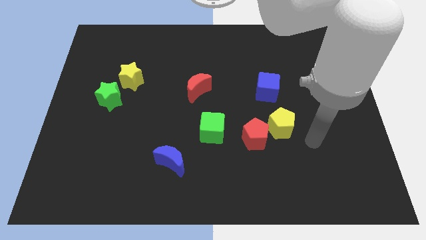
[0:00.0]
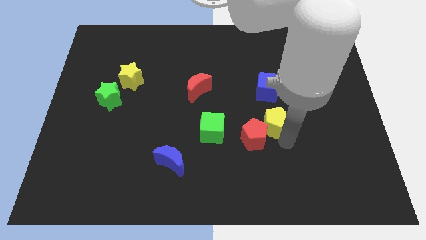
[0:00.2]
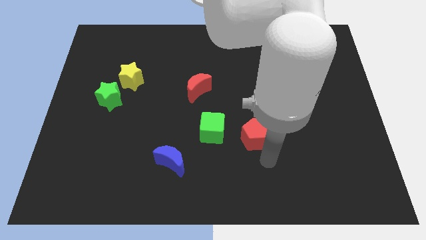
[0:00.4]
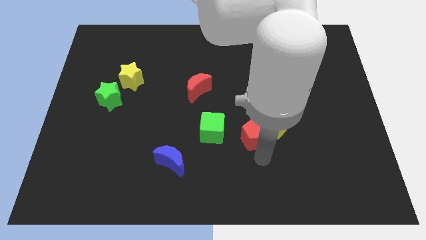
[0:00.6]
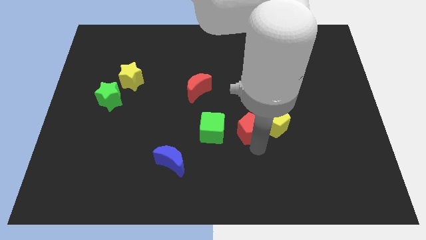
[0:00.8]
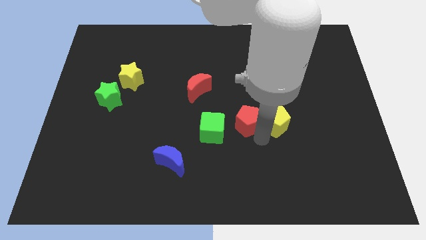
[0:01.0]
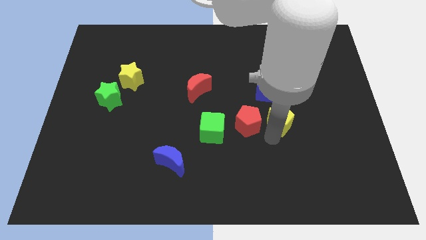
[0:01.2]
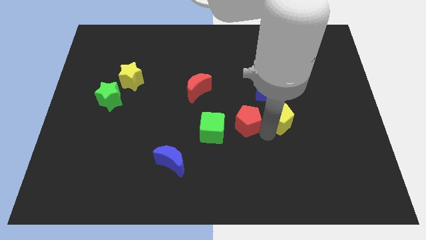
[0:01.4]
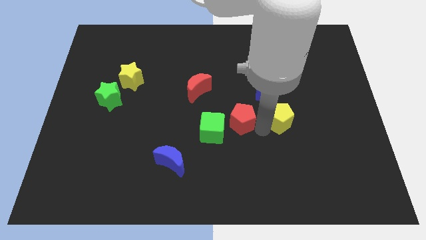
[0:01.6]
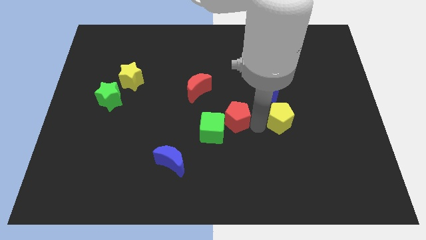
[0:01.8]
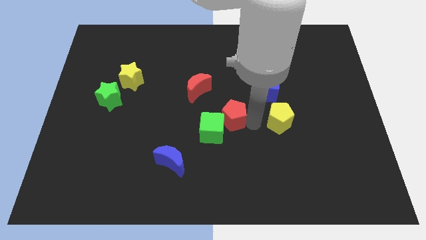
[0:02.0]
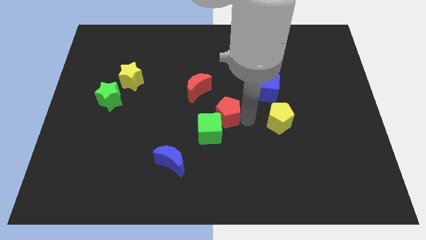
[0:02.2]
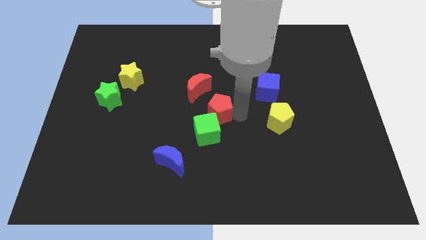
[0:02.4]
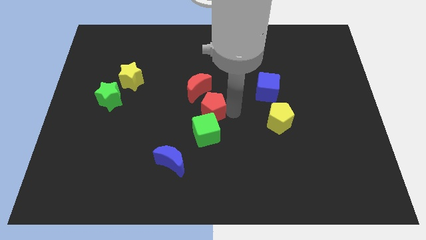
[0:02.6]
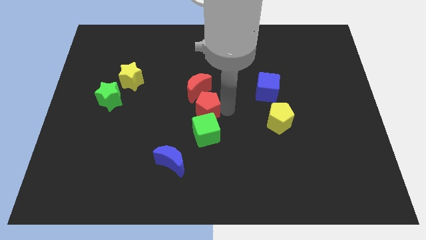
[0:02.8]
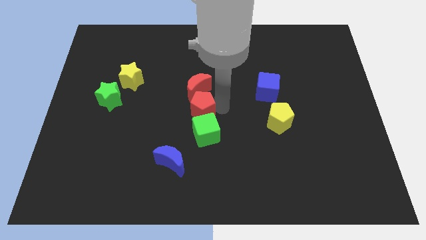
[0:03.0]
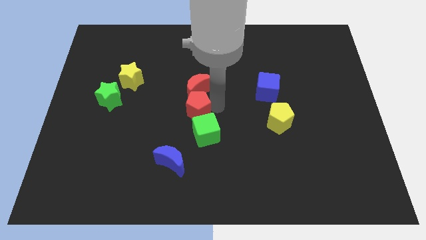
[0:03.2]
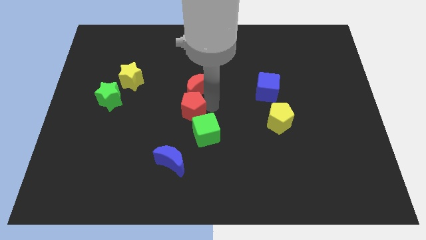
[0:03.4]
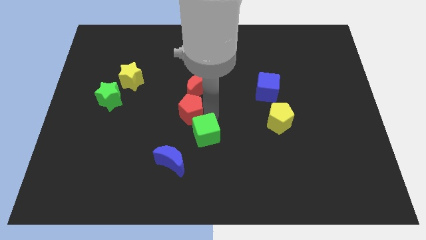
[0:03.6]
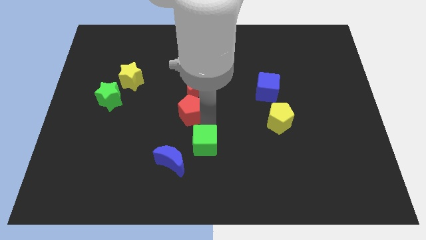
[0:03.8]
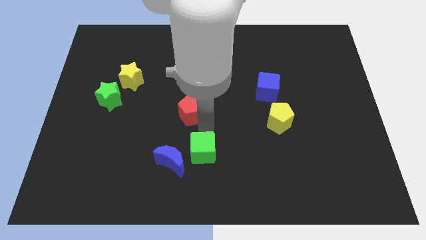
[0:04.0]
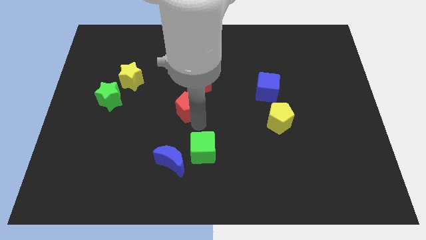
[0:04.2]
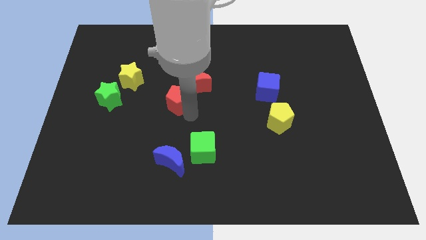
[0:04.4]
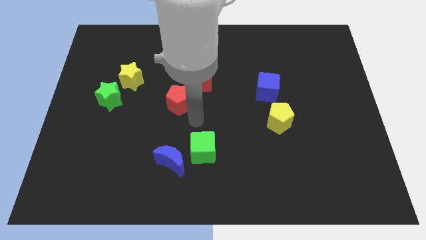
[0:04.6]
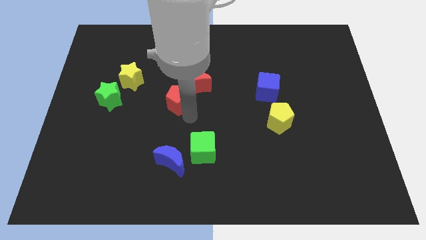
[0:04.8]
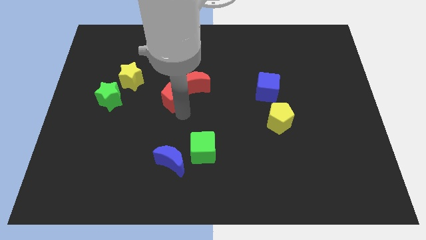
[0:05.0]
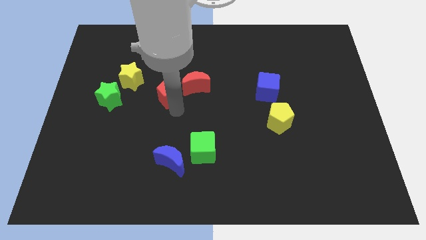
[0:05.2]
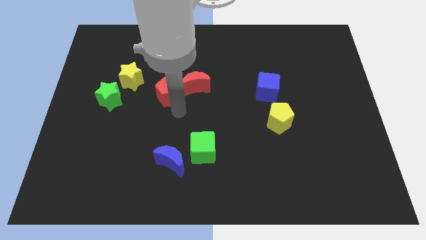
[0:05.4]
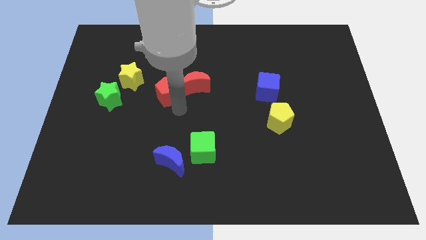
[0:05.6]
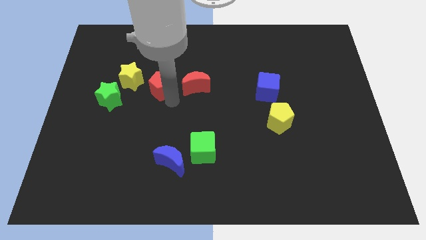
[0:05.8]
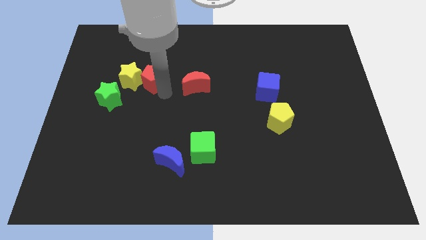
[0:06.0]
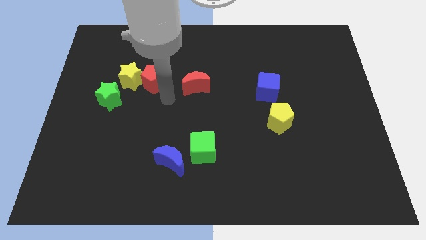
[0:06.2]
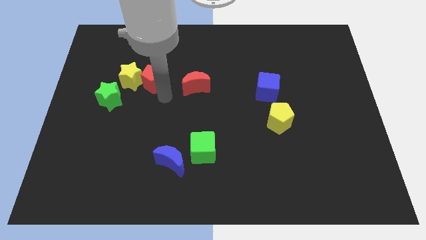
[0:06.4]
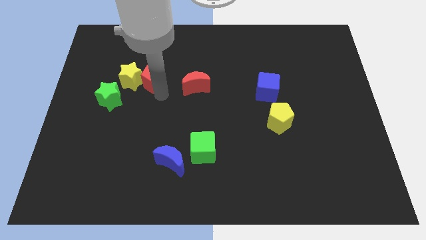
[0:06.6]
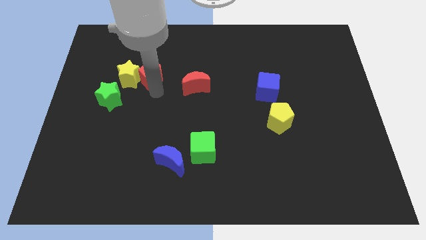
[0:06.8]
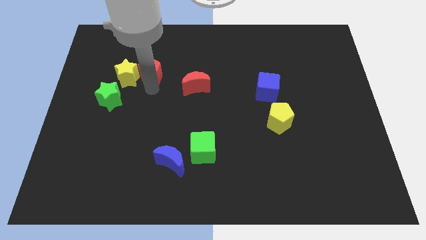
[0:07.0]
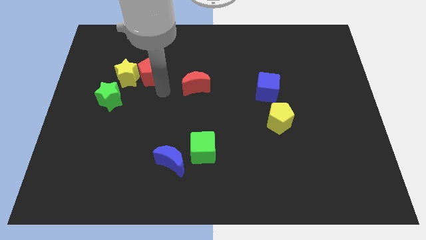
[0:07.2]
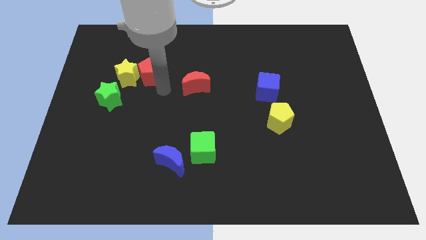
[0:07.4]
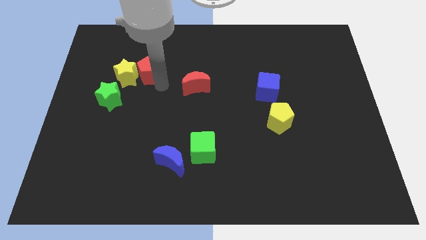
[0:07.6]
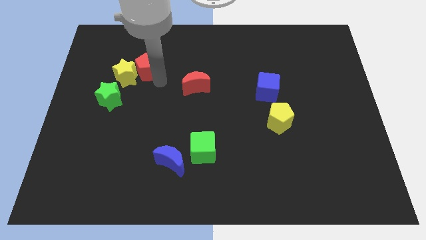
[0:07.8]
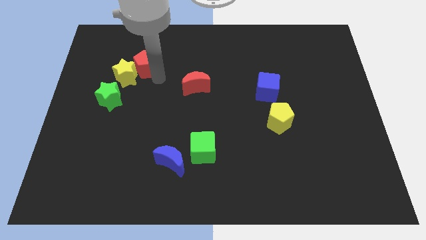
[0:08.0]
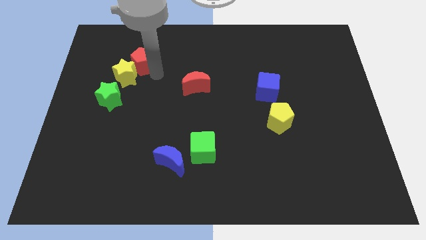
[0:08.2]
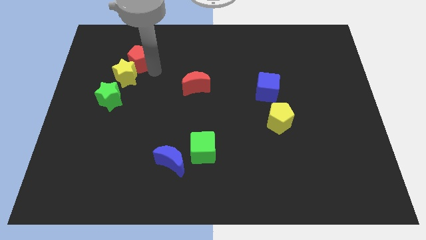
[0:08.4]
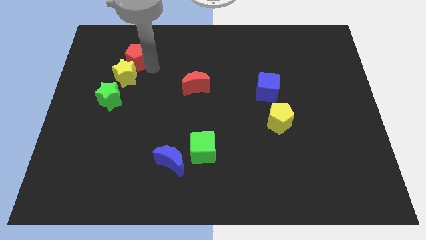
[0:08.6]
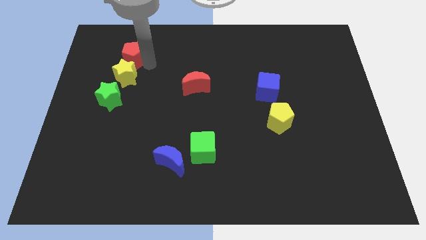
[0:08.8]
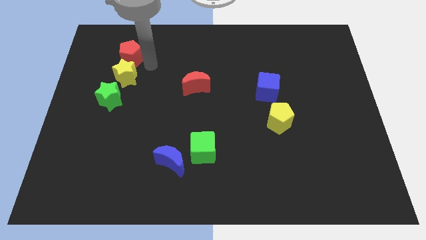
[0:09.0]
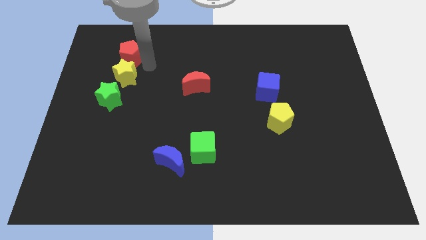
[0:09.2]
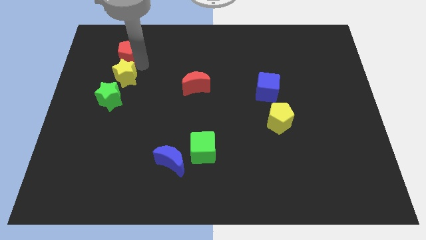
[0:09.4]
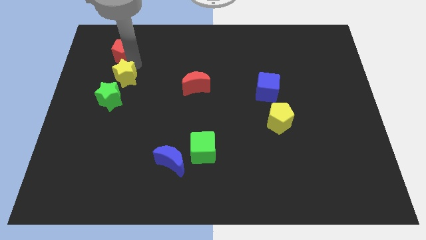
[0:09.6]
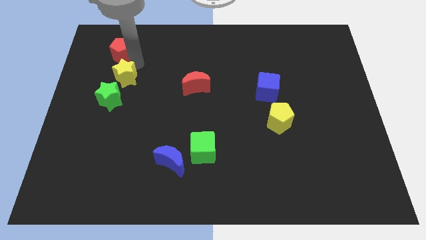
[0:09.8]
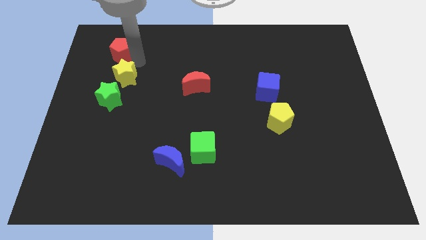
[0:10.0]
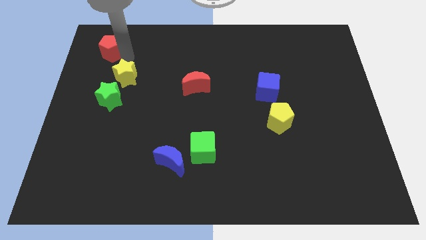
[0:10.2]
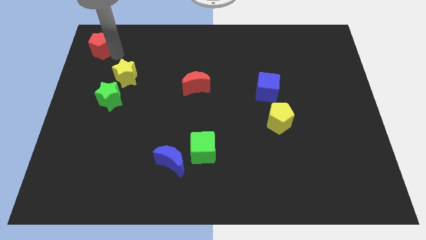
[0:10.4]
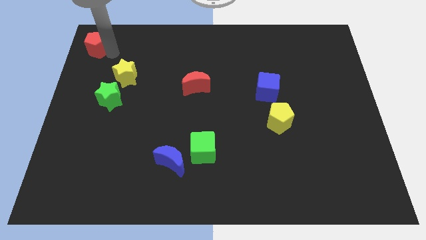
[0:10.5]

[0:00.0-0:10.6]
put the red pentagon to the upper left corner
